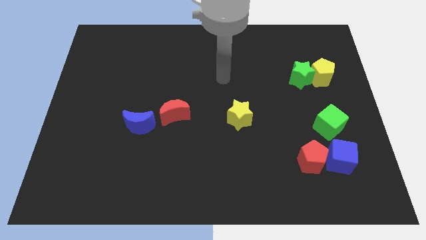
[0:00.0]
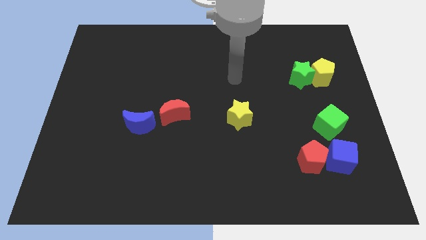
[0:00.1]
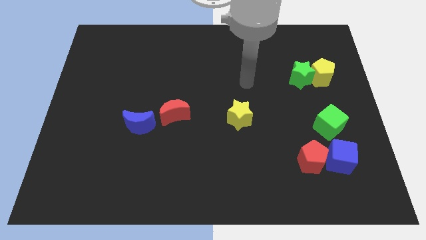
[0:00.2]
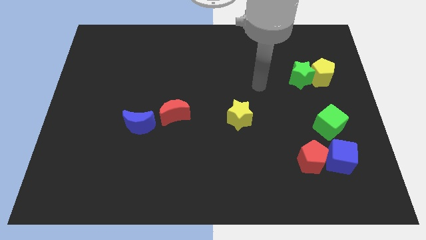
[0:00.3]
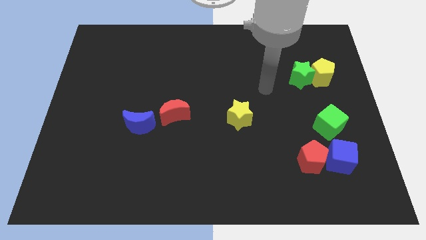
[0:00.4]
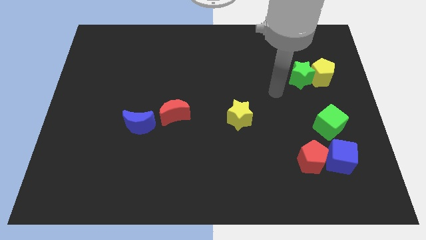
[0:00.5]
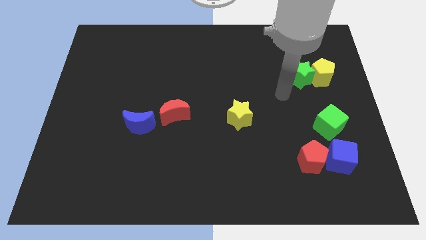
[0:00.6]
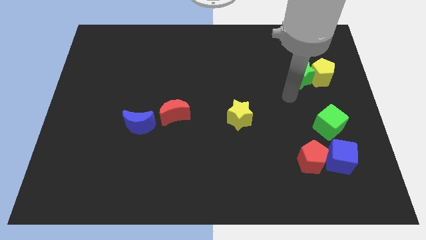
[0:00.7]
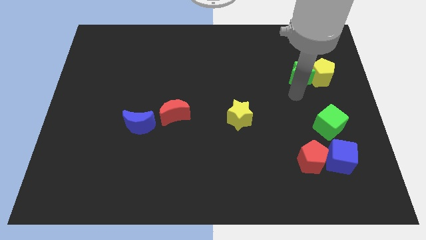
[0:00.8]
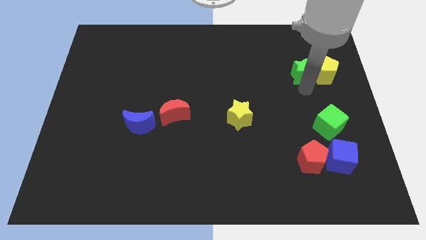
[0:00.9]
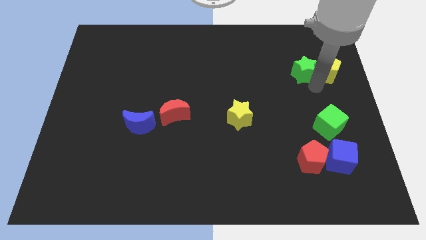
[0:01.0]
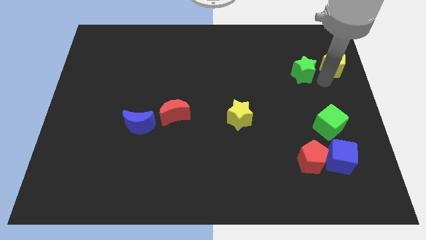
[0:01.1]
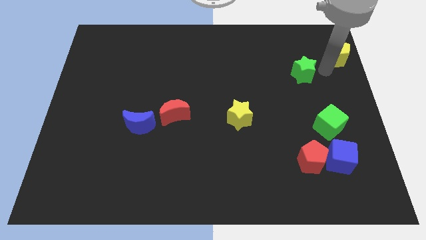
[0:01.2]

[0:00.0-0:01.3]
pull the green star apart from the yellow pentagon

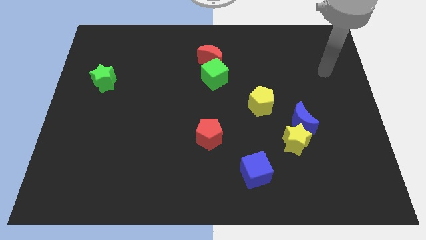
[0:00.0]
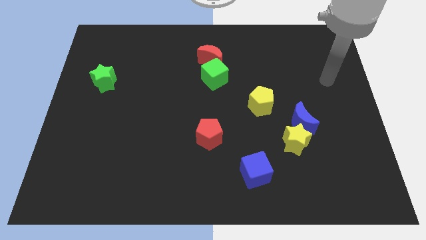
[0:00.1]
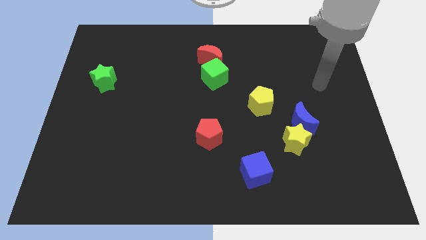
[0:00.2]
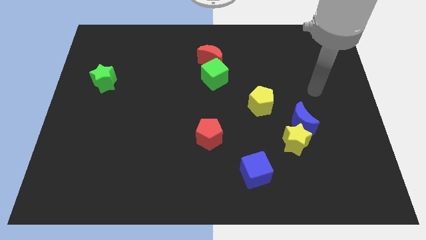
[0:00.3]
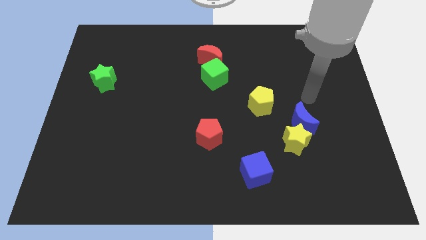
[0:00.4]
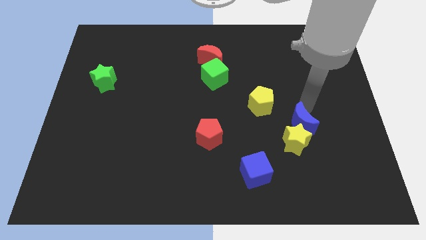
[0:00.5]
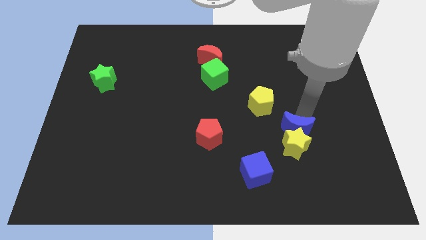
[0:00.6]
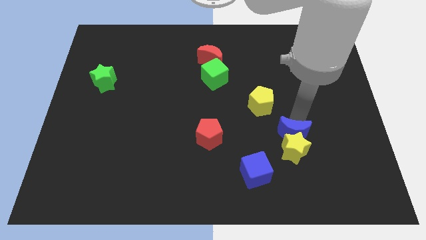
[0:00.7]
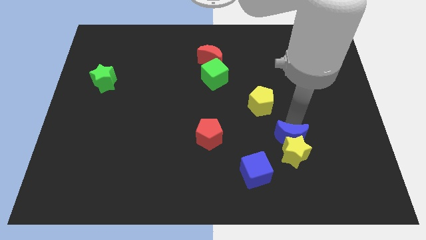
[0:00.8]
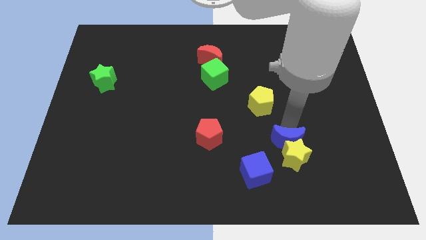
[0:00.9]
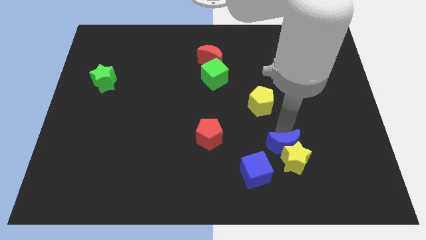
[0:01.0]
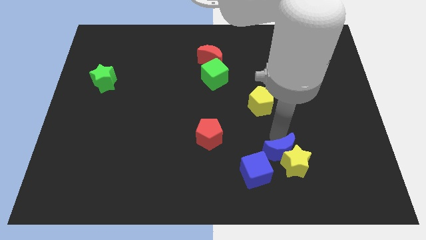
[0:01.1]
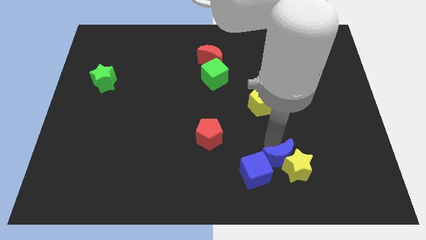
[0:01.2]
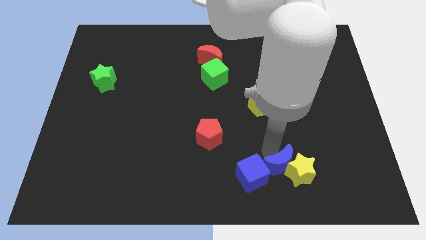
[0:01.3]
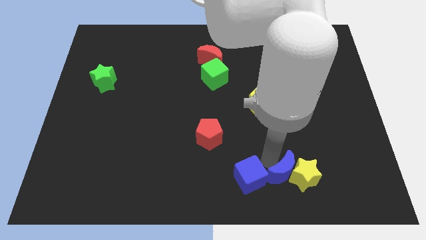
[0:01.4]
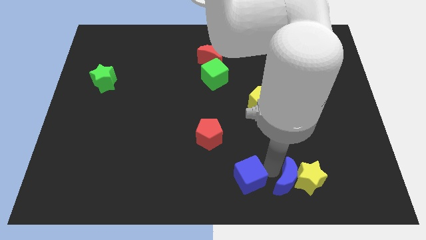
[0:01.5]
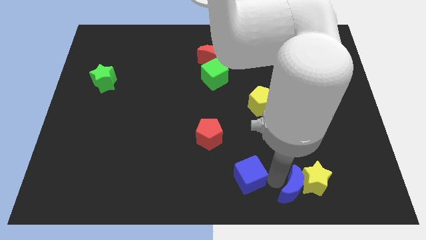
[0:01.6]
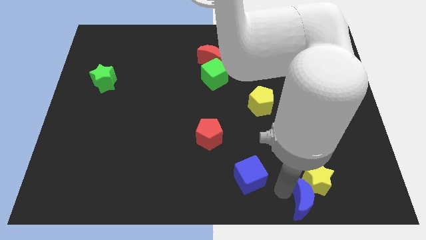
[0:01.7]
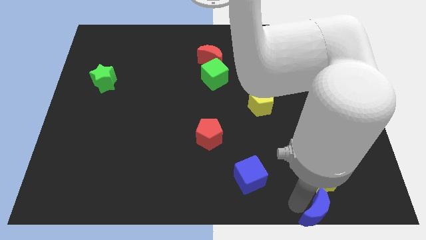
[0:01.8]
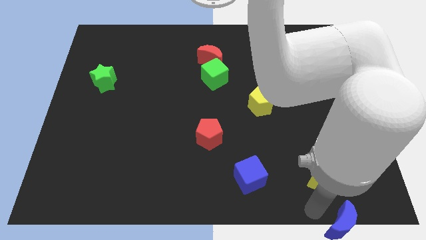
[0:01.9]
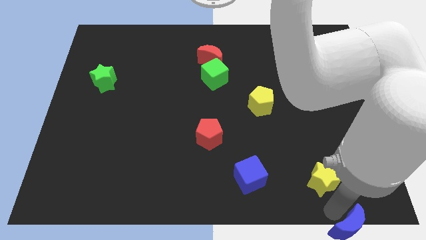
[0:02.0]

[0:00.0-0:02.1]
move the yellow star away from the blue moon

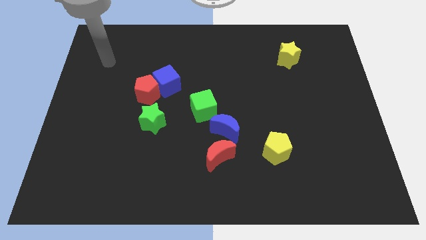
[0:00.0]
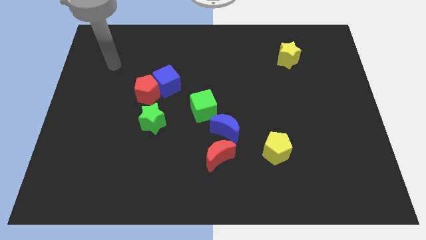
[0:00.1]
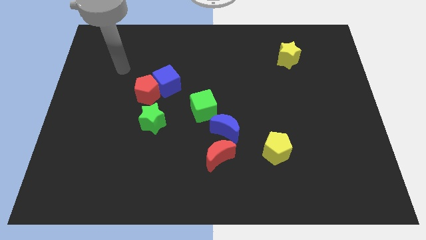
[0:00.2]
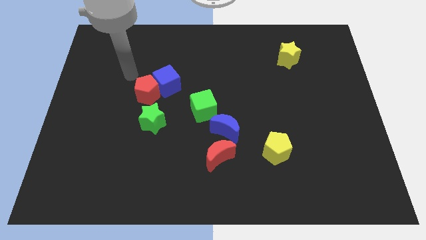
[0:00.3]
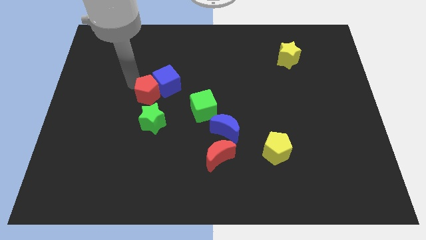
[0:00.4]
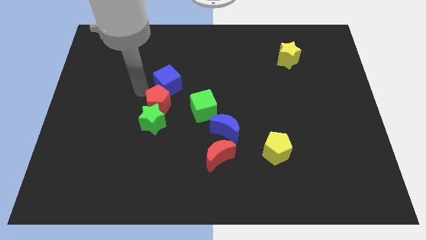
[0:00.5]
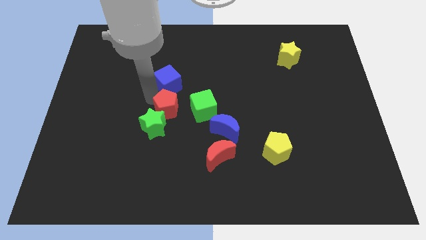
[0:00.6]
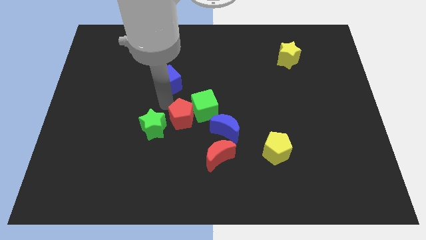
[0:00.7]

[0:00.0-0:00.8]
separate the blue cube from the red pentagon

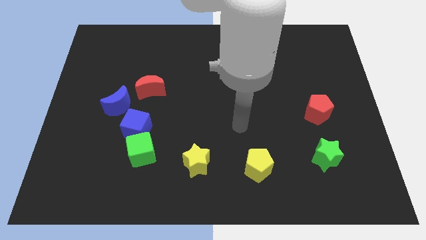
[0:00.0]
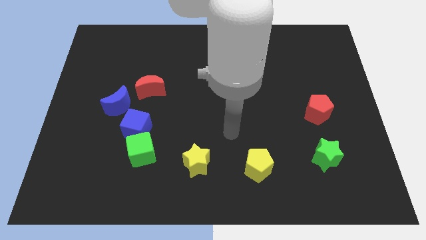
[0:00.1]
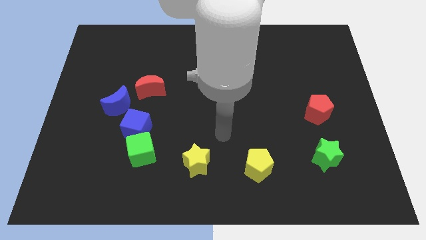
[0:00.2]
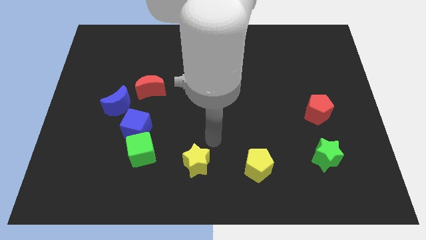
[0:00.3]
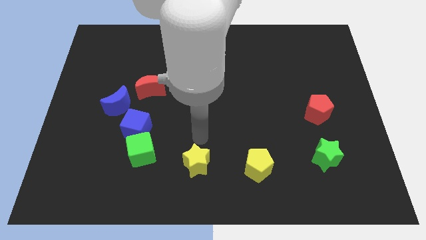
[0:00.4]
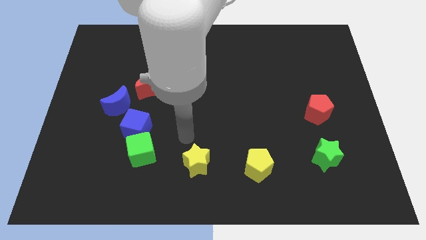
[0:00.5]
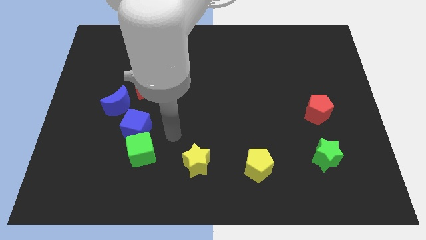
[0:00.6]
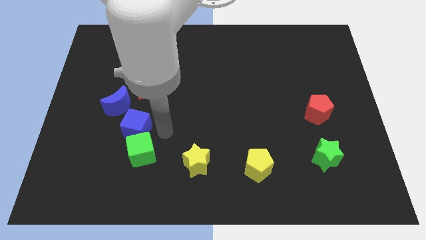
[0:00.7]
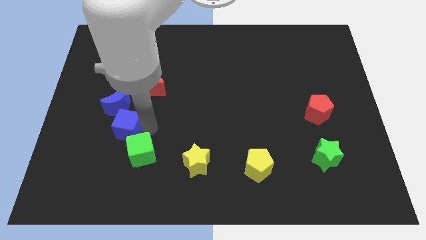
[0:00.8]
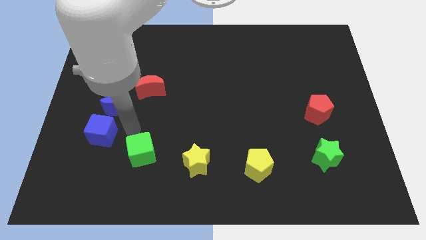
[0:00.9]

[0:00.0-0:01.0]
pull the green cube apart from the blue cube

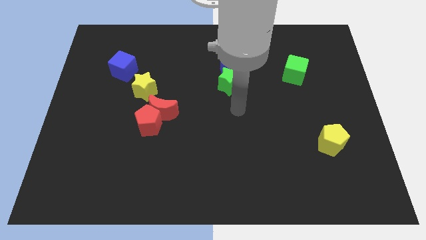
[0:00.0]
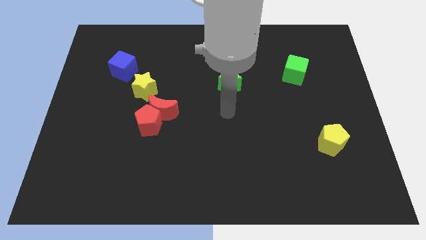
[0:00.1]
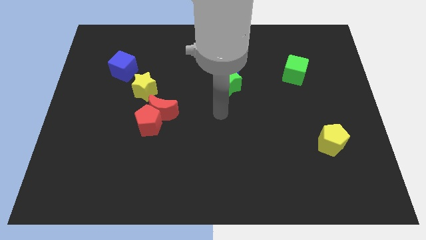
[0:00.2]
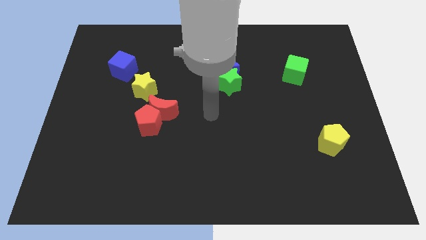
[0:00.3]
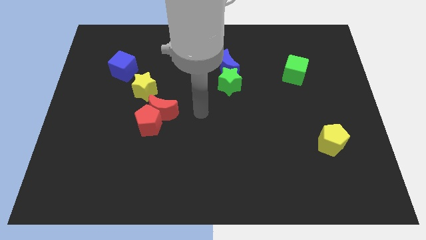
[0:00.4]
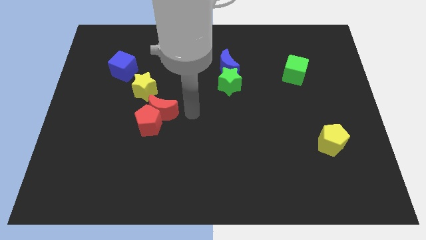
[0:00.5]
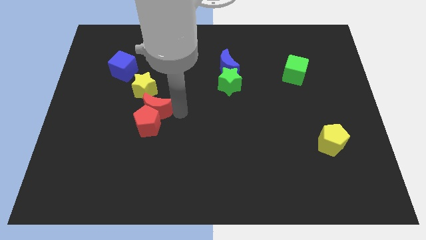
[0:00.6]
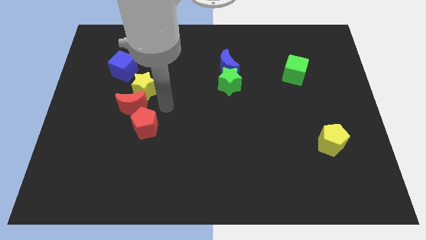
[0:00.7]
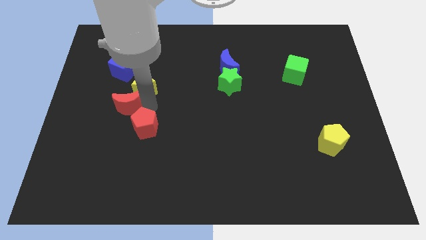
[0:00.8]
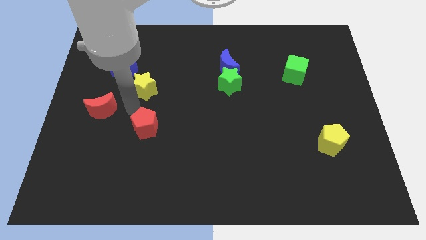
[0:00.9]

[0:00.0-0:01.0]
move the red pentagon away from the red moon

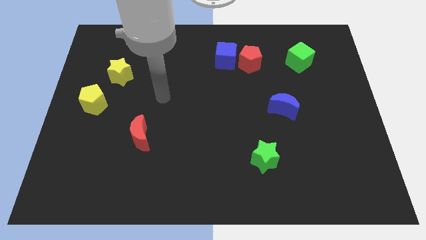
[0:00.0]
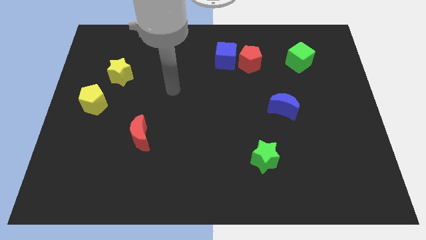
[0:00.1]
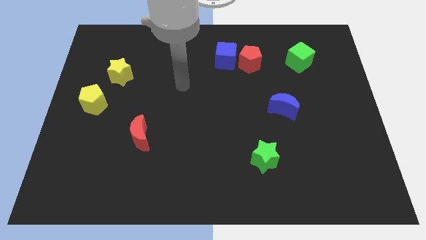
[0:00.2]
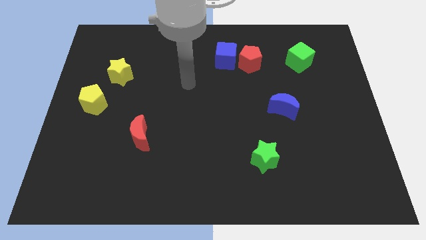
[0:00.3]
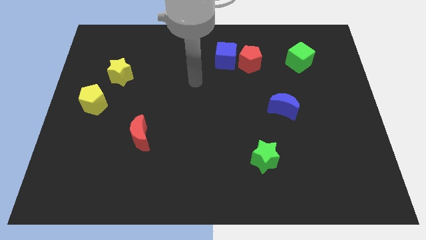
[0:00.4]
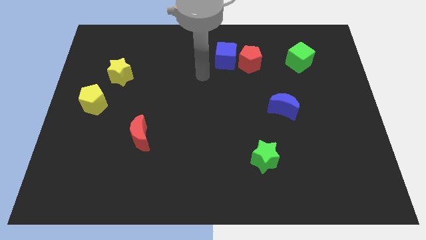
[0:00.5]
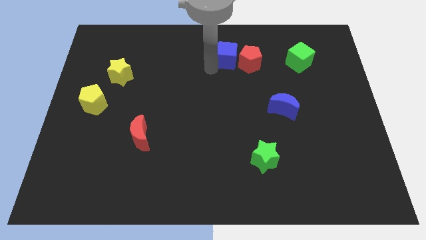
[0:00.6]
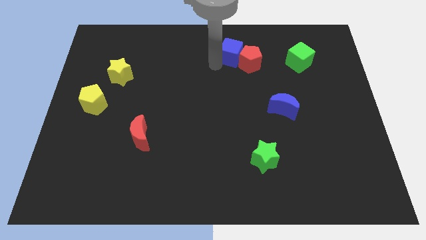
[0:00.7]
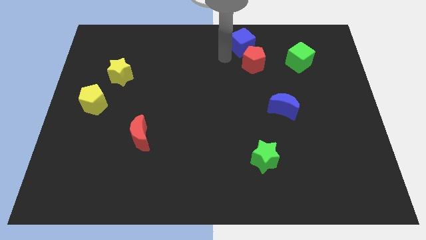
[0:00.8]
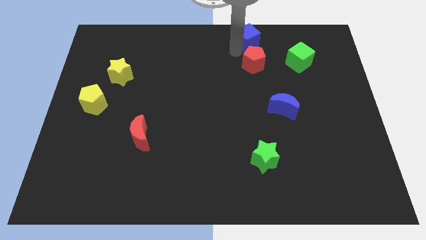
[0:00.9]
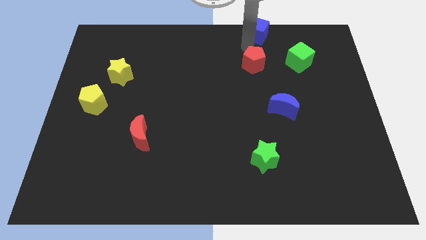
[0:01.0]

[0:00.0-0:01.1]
pull the red pentagon apart from the blue cube

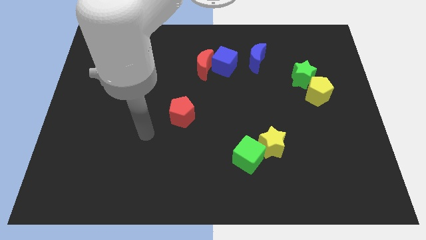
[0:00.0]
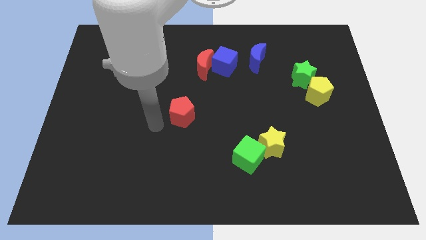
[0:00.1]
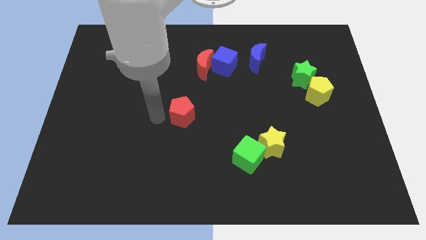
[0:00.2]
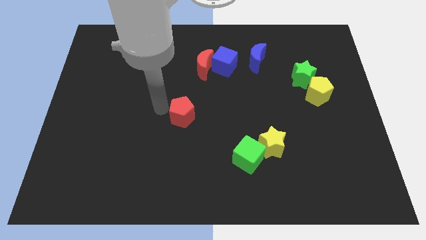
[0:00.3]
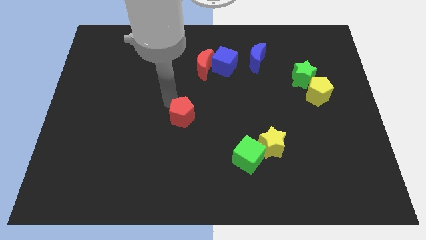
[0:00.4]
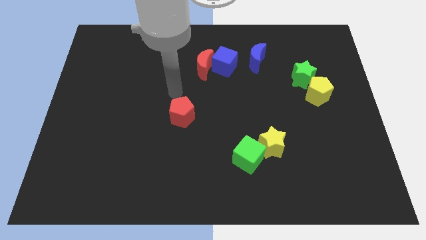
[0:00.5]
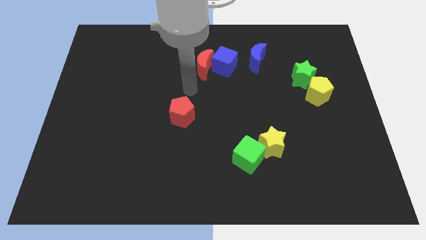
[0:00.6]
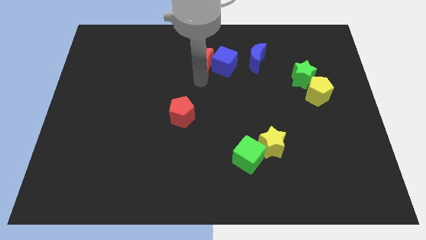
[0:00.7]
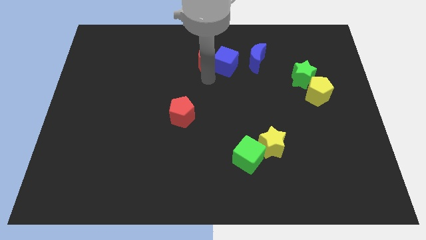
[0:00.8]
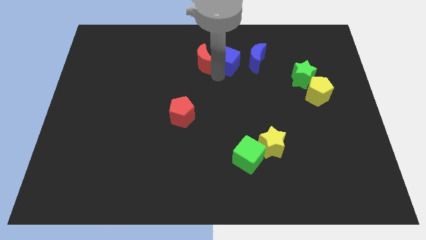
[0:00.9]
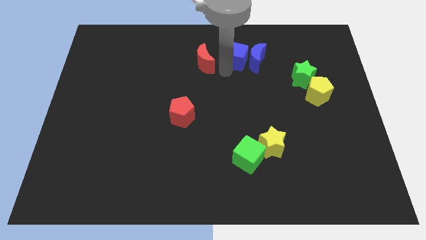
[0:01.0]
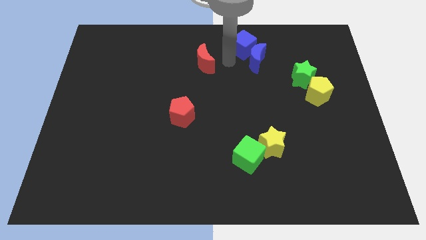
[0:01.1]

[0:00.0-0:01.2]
pull the red moon apart from the blue cube

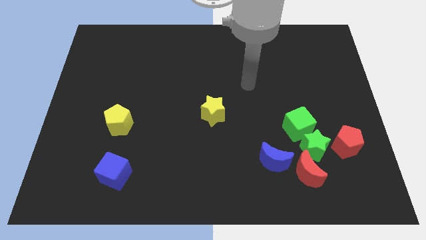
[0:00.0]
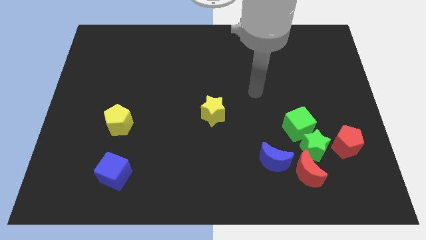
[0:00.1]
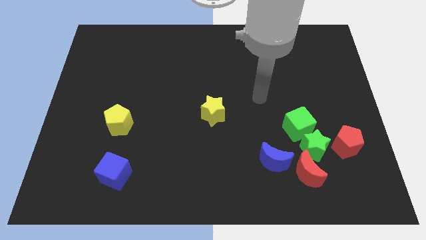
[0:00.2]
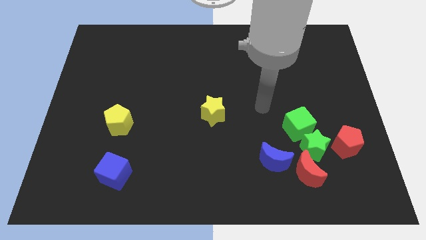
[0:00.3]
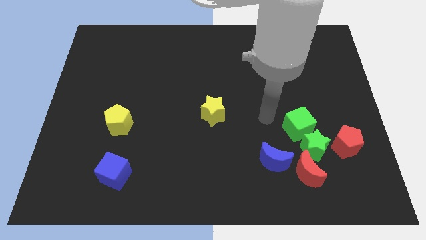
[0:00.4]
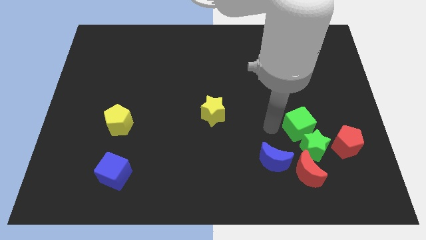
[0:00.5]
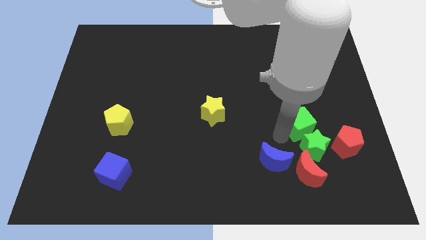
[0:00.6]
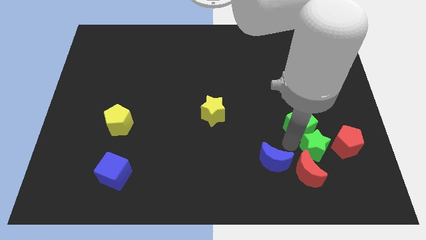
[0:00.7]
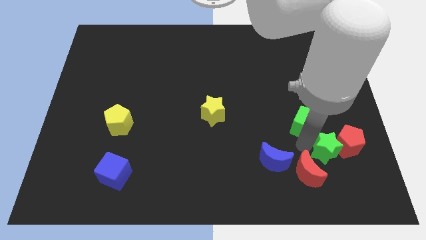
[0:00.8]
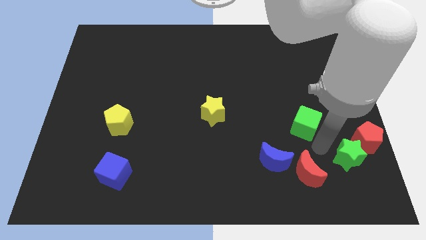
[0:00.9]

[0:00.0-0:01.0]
separate the green cube from the green star
